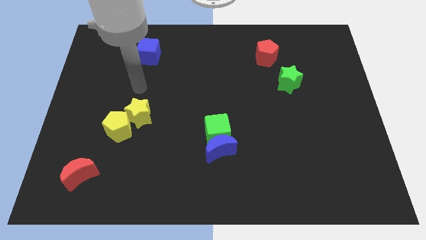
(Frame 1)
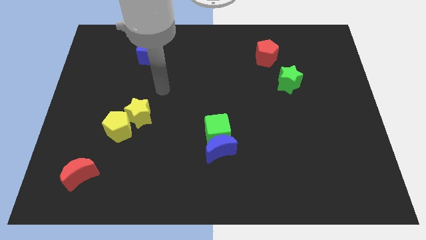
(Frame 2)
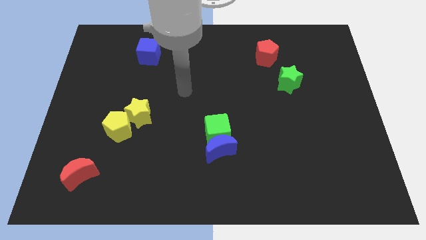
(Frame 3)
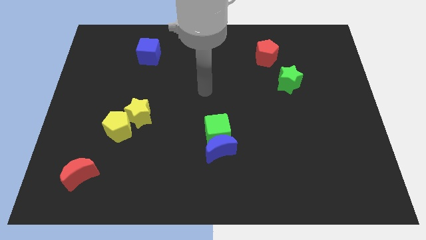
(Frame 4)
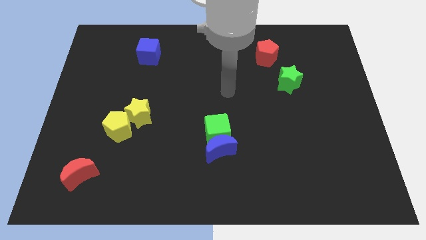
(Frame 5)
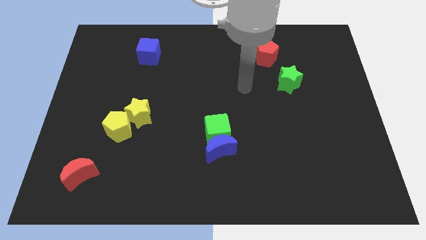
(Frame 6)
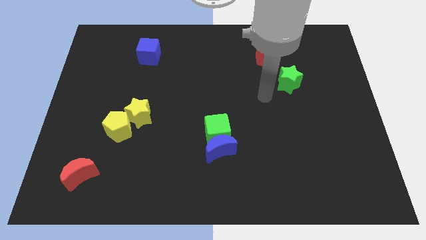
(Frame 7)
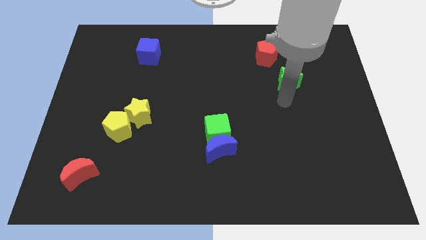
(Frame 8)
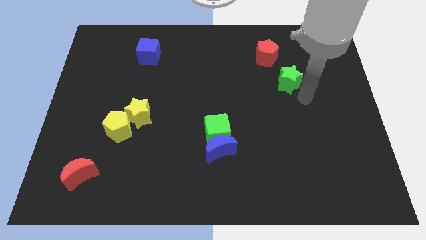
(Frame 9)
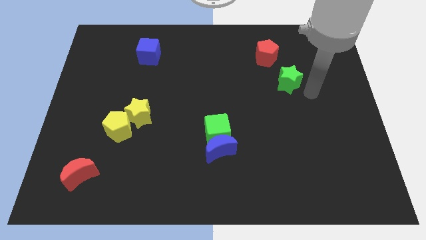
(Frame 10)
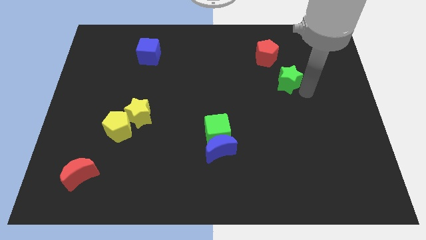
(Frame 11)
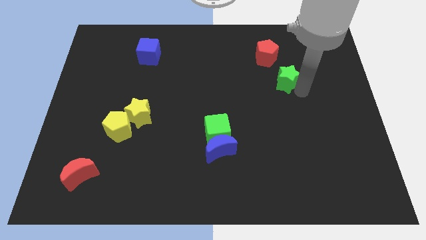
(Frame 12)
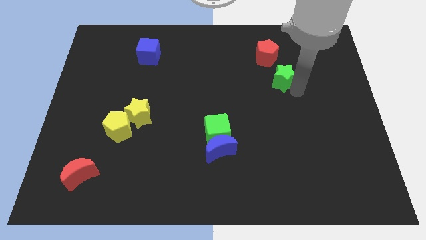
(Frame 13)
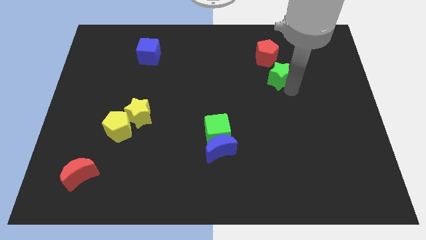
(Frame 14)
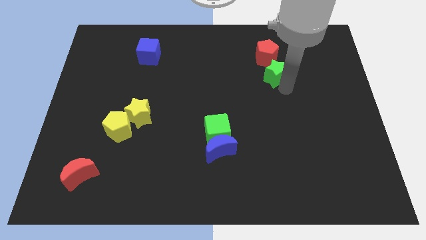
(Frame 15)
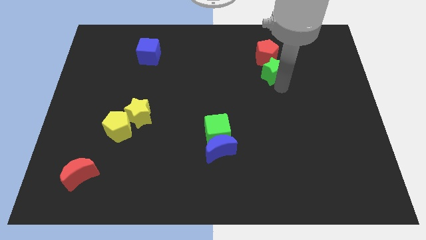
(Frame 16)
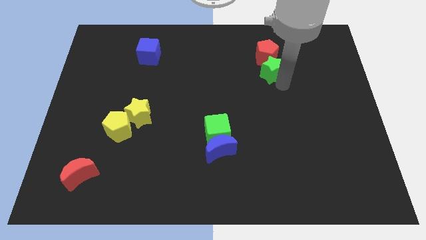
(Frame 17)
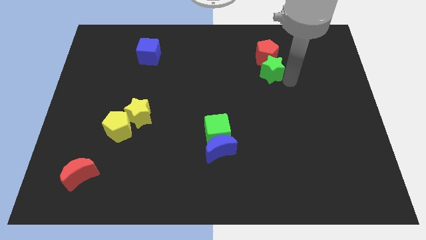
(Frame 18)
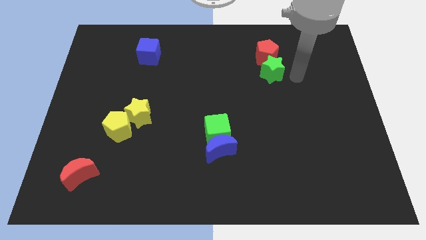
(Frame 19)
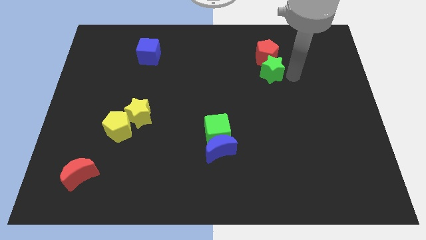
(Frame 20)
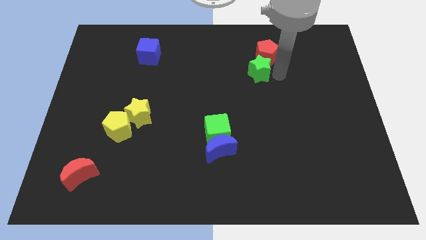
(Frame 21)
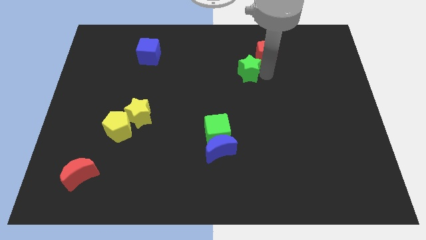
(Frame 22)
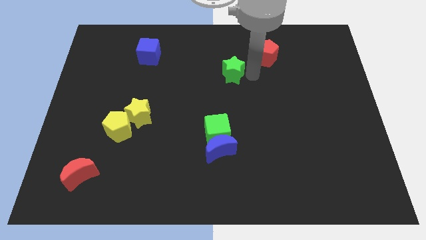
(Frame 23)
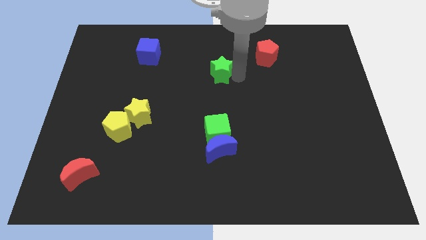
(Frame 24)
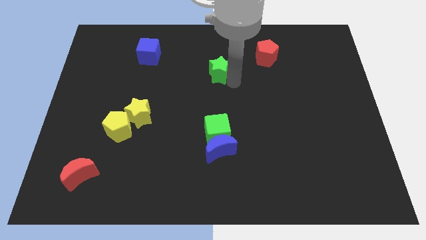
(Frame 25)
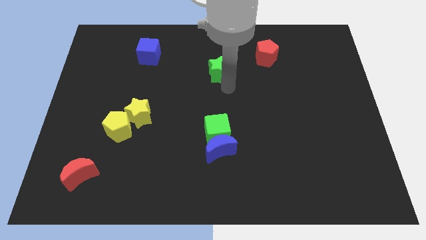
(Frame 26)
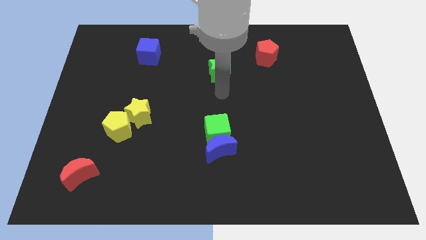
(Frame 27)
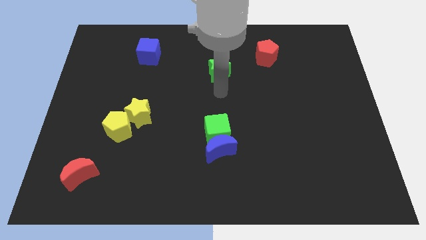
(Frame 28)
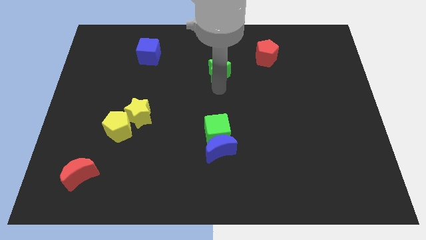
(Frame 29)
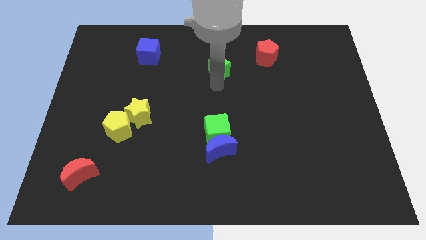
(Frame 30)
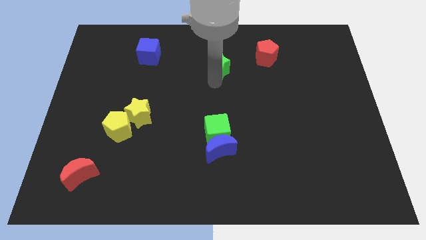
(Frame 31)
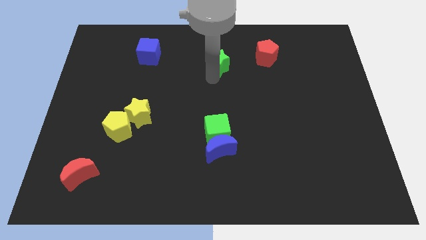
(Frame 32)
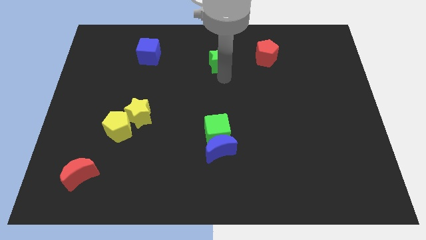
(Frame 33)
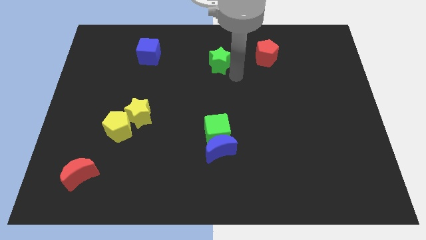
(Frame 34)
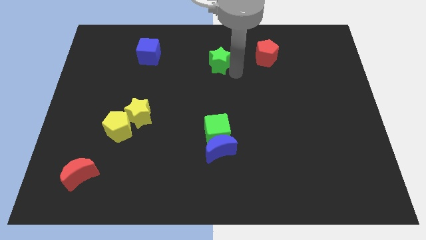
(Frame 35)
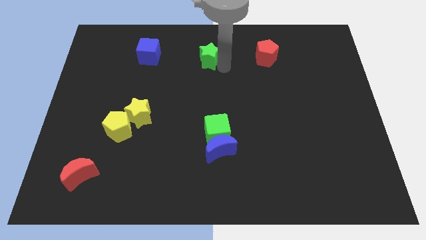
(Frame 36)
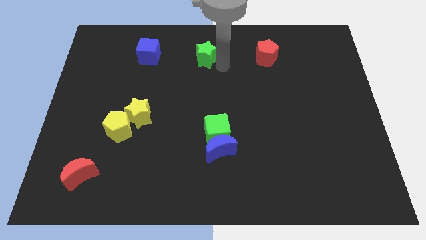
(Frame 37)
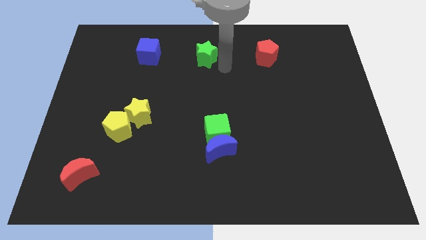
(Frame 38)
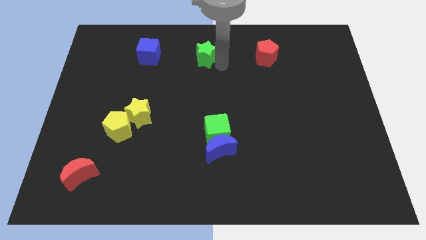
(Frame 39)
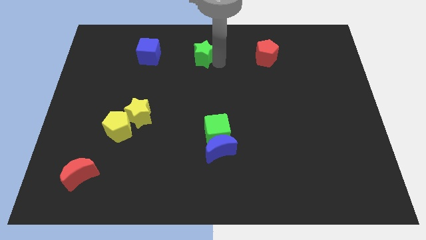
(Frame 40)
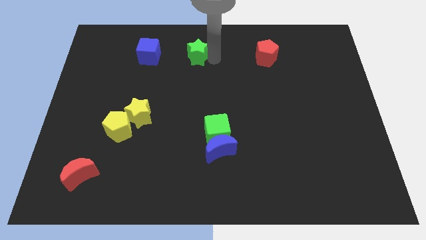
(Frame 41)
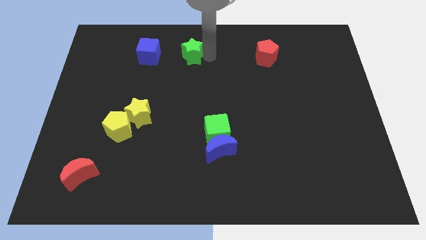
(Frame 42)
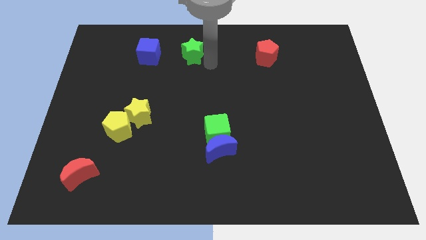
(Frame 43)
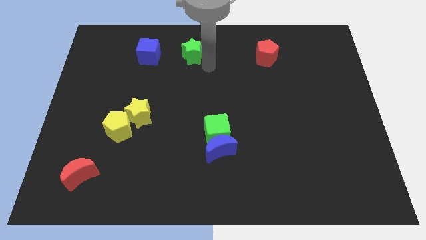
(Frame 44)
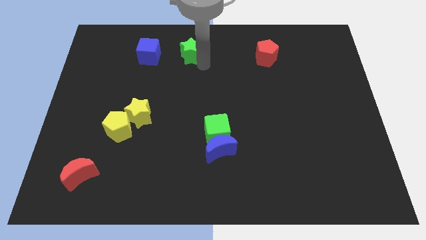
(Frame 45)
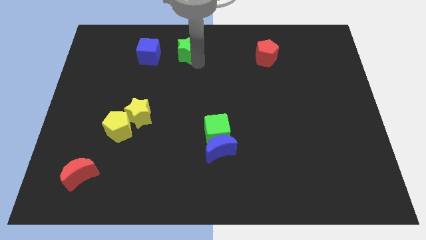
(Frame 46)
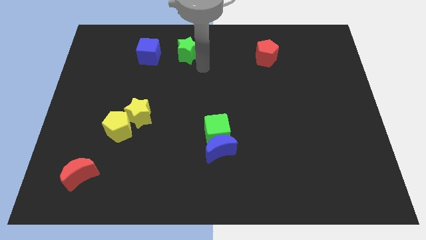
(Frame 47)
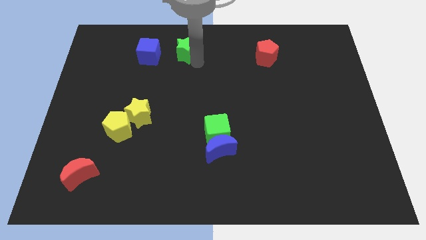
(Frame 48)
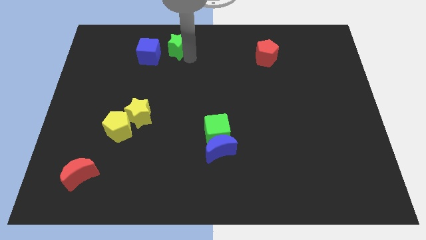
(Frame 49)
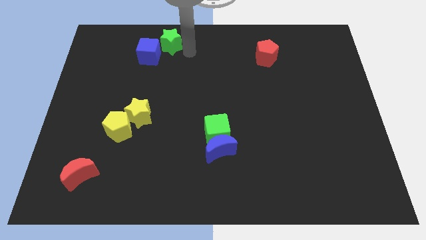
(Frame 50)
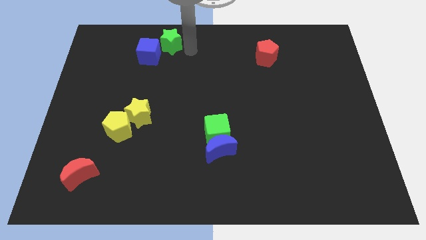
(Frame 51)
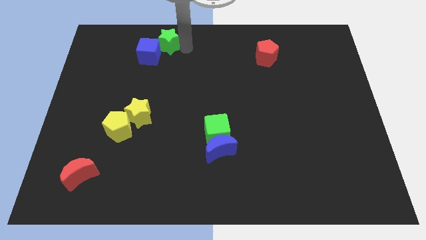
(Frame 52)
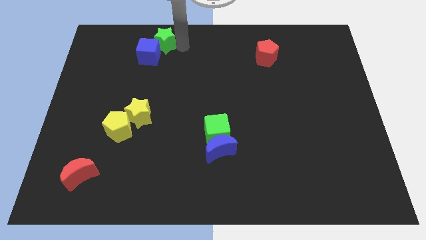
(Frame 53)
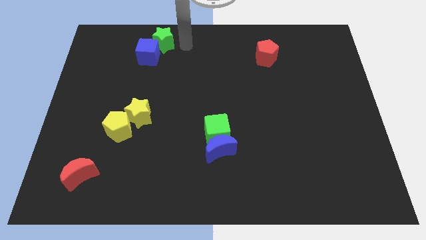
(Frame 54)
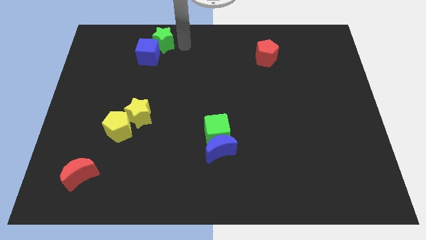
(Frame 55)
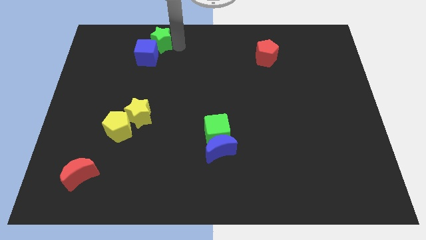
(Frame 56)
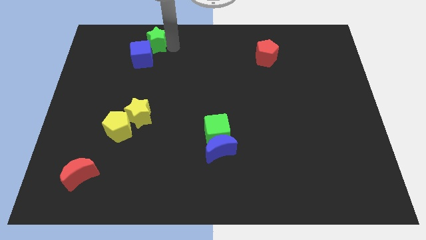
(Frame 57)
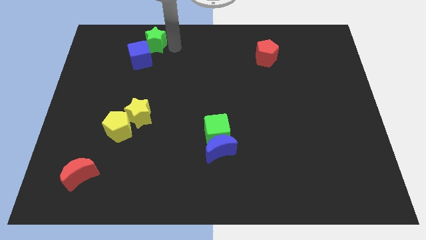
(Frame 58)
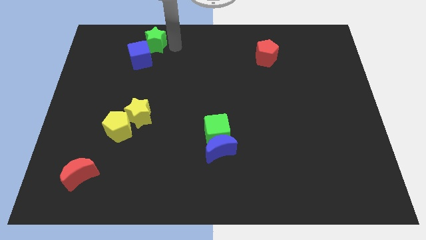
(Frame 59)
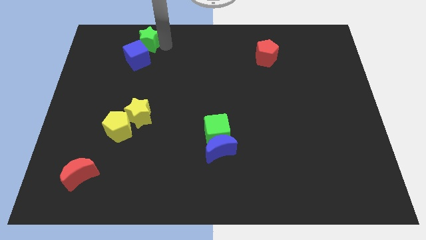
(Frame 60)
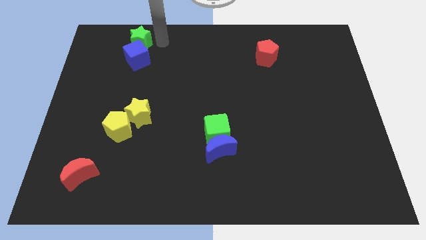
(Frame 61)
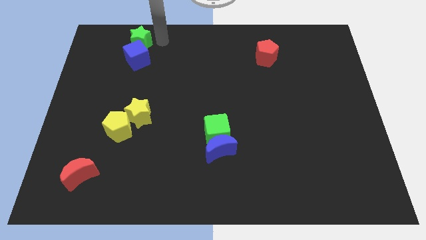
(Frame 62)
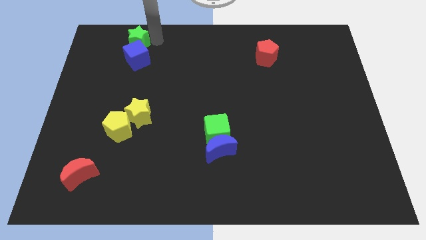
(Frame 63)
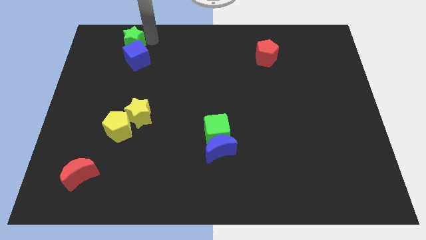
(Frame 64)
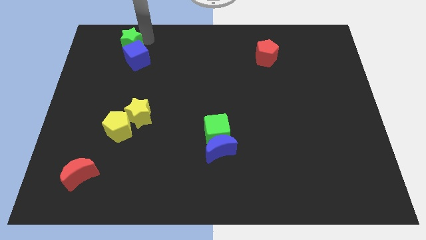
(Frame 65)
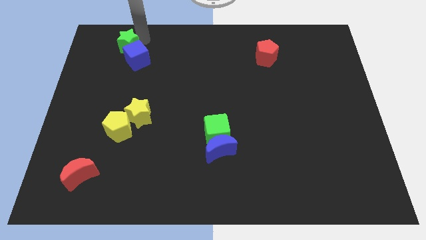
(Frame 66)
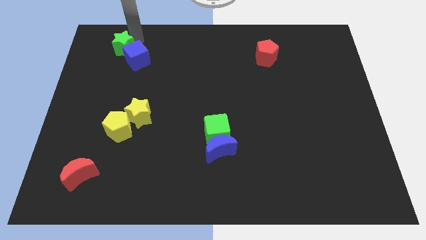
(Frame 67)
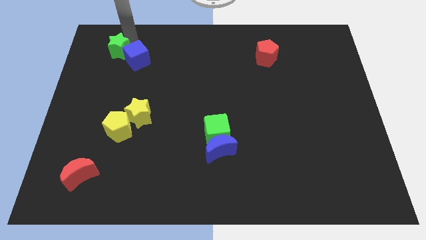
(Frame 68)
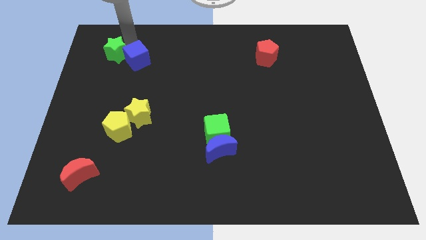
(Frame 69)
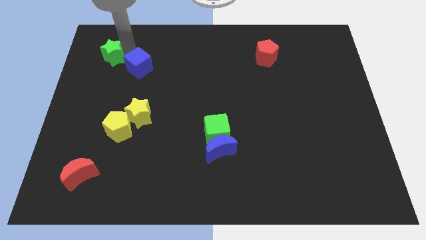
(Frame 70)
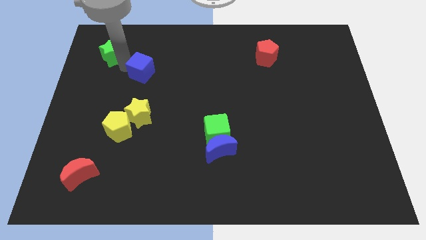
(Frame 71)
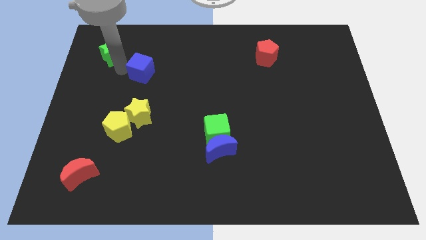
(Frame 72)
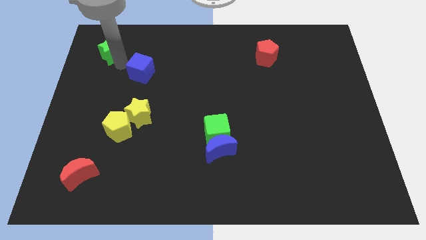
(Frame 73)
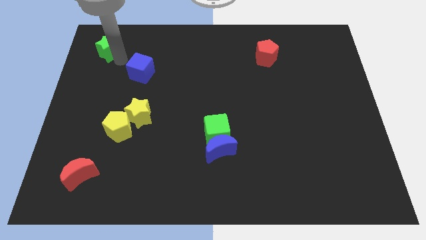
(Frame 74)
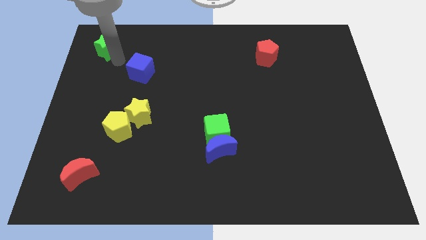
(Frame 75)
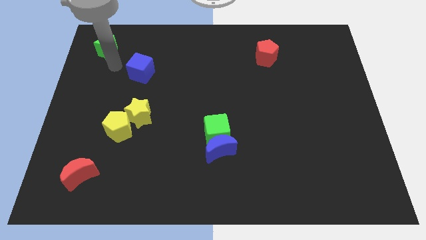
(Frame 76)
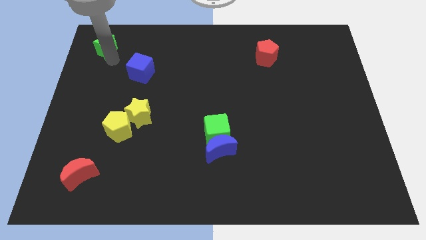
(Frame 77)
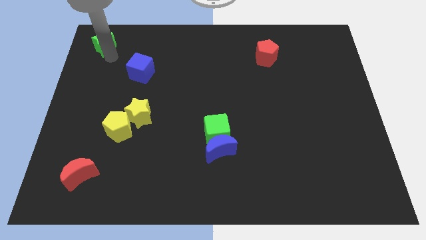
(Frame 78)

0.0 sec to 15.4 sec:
put the green star to the top left
